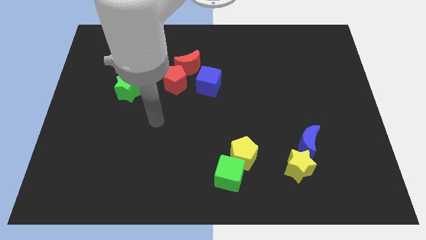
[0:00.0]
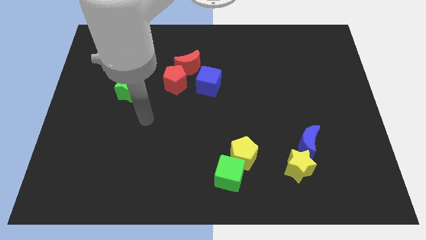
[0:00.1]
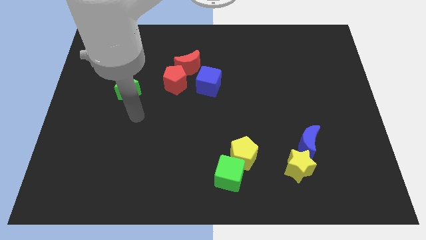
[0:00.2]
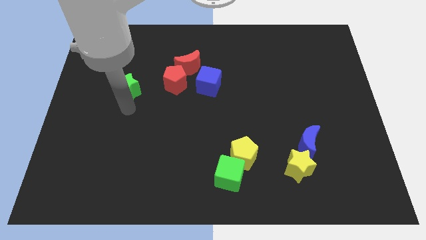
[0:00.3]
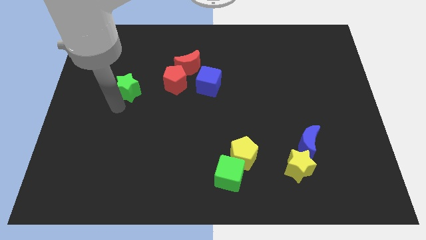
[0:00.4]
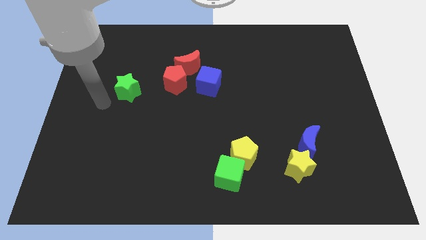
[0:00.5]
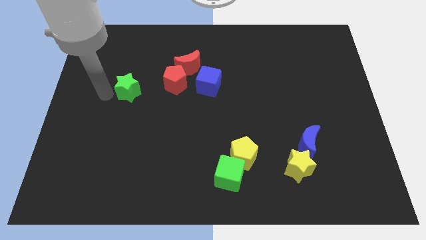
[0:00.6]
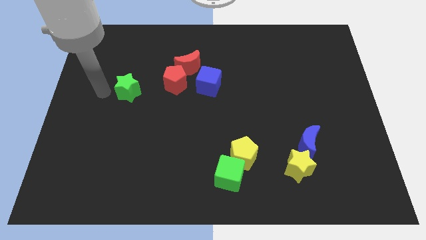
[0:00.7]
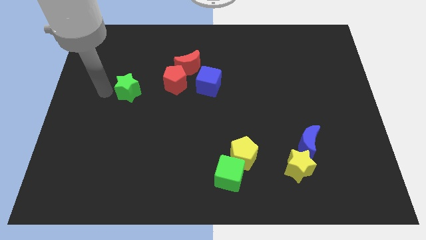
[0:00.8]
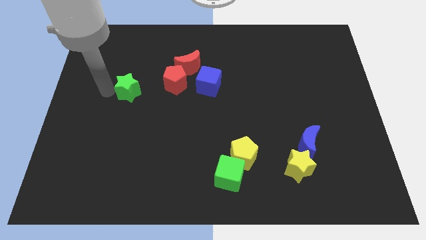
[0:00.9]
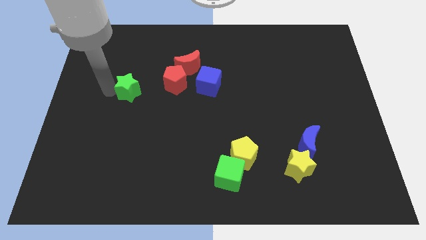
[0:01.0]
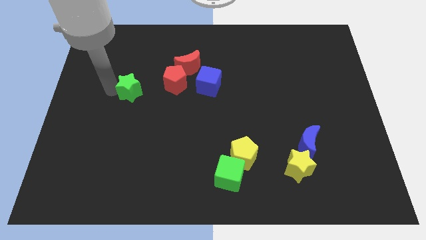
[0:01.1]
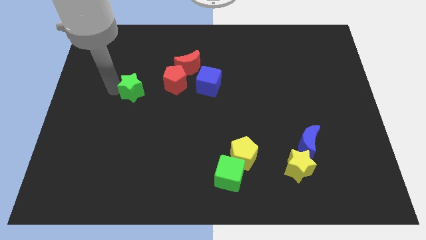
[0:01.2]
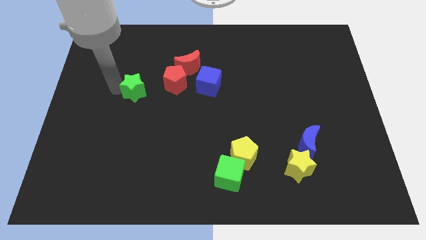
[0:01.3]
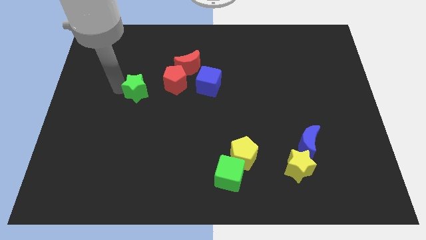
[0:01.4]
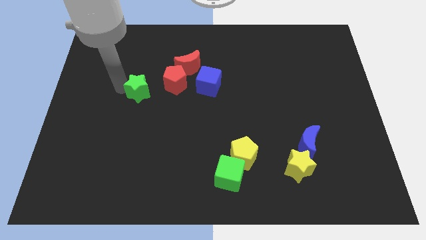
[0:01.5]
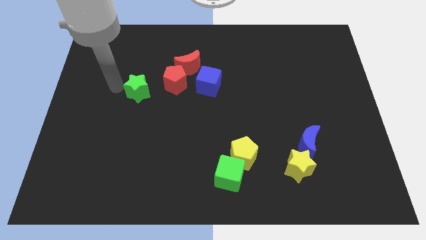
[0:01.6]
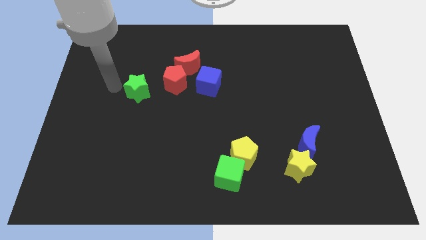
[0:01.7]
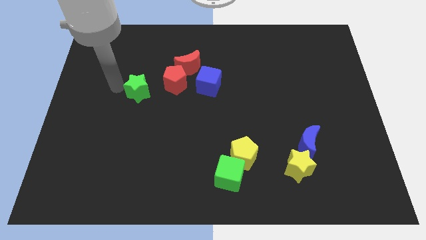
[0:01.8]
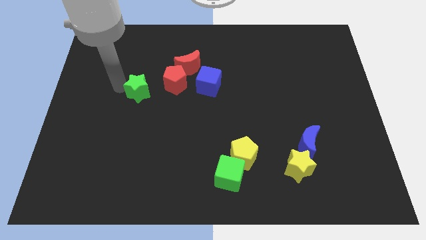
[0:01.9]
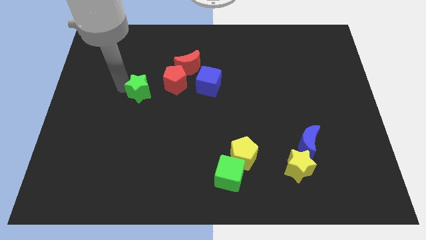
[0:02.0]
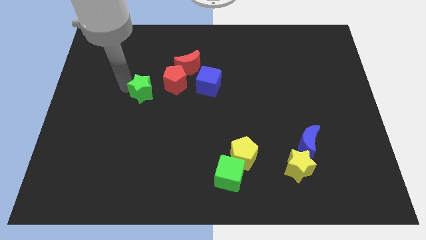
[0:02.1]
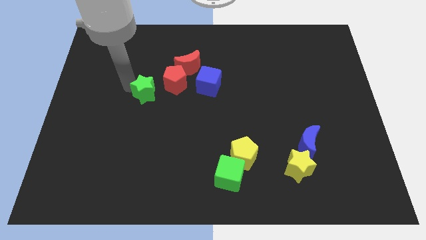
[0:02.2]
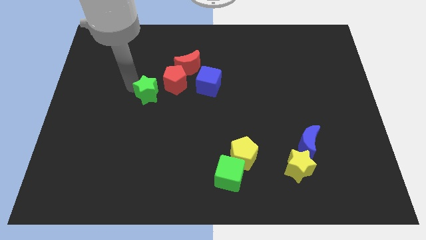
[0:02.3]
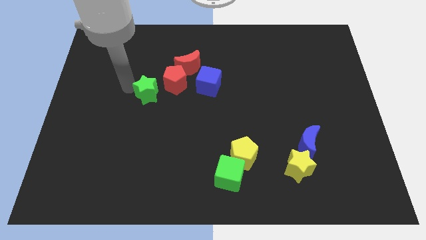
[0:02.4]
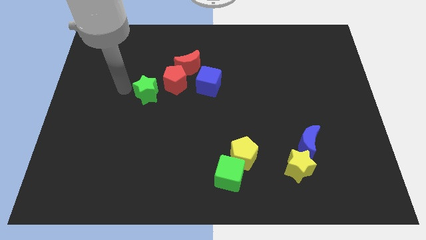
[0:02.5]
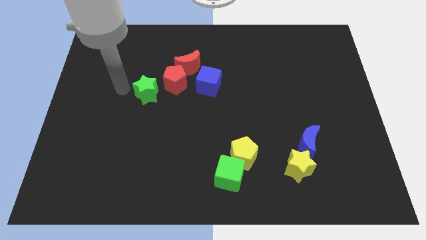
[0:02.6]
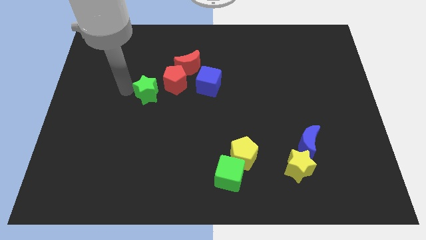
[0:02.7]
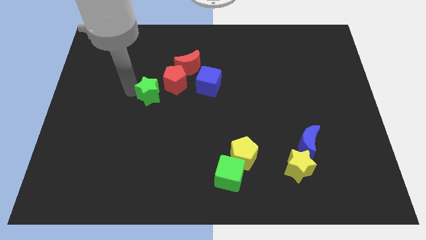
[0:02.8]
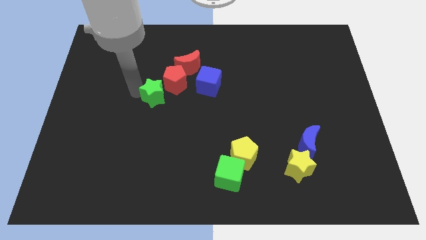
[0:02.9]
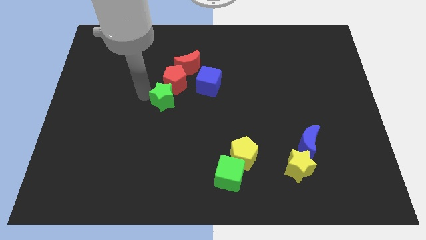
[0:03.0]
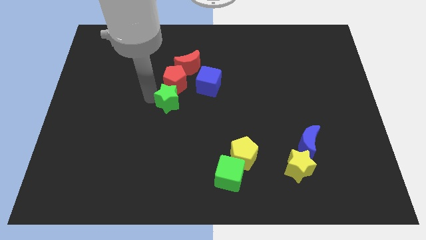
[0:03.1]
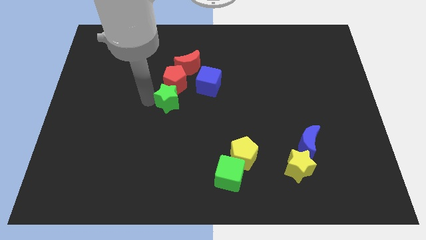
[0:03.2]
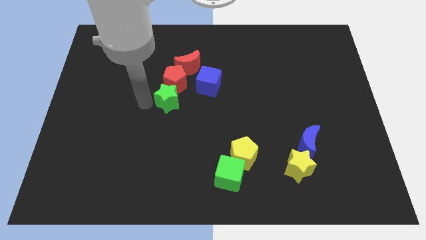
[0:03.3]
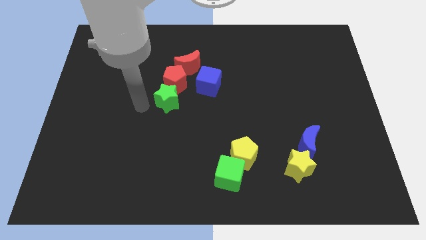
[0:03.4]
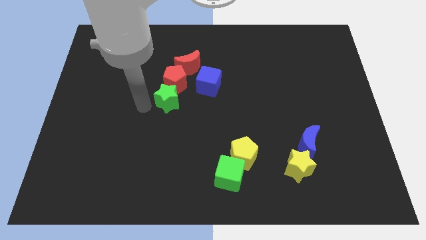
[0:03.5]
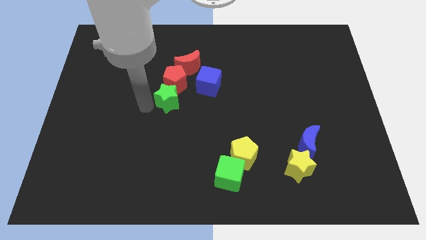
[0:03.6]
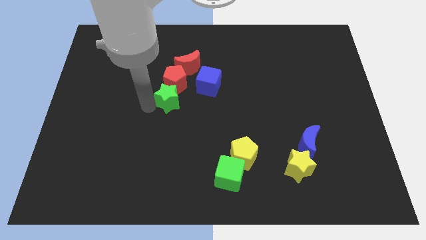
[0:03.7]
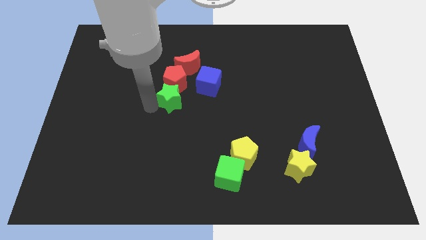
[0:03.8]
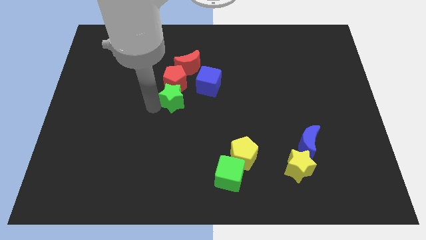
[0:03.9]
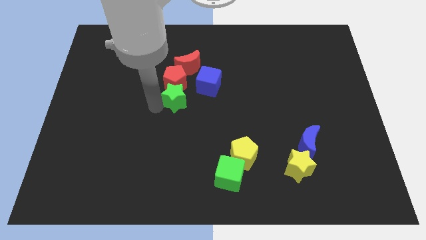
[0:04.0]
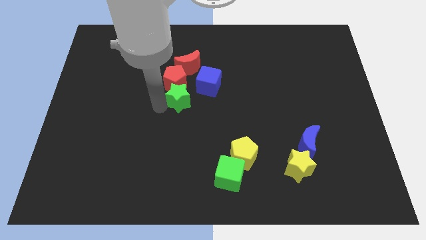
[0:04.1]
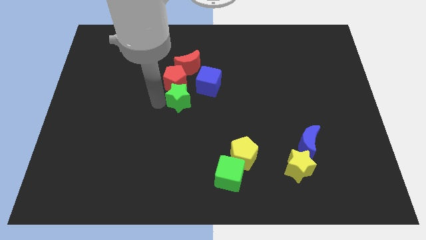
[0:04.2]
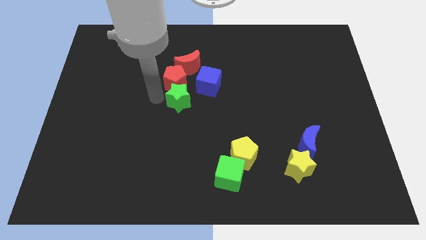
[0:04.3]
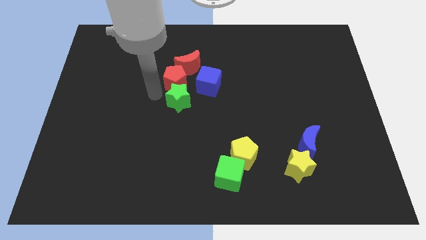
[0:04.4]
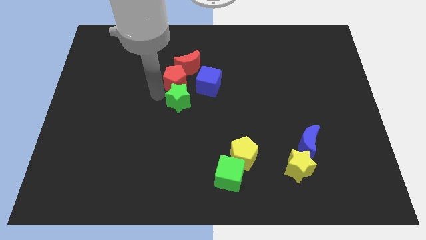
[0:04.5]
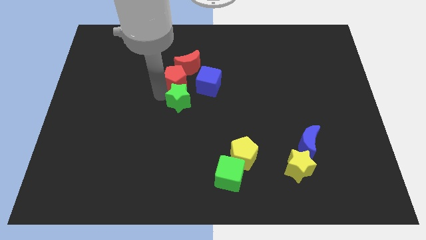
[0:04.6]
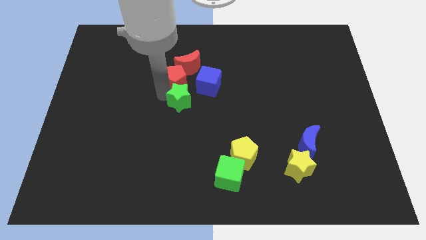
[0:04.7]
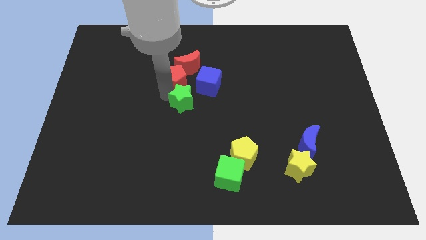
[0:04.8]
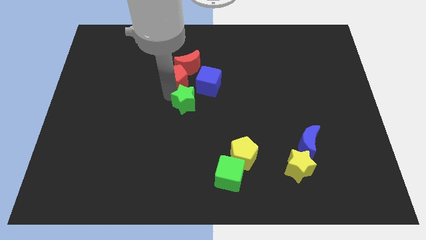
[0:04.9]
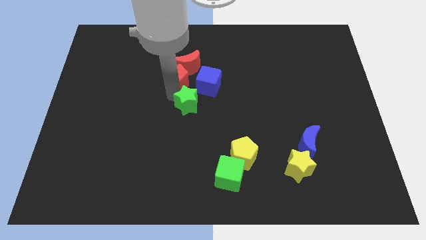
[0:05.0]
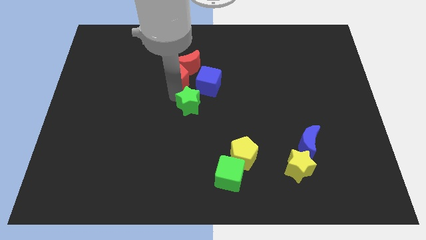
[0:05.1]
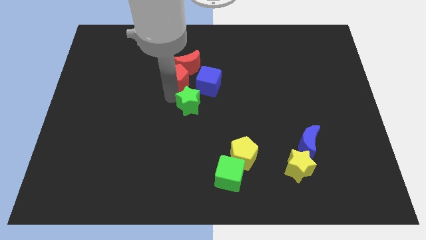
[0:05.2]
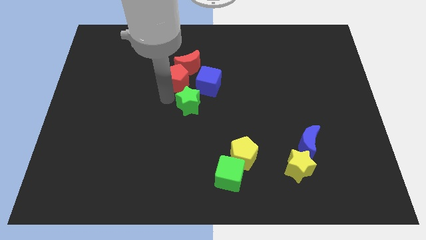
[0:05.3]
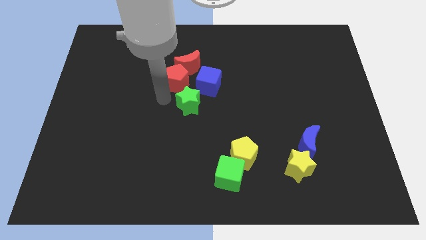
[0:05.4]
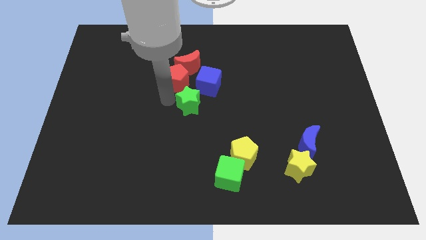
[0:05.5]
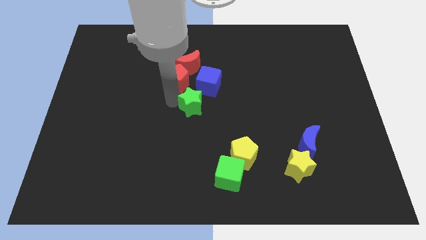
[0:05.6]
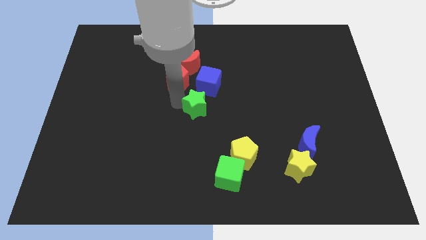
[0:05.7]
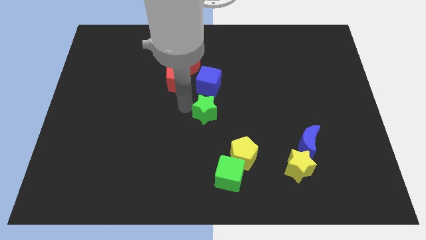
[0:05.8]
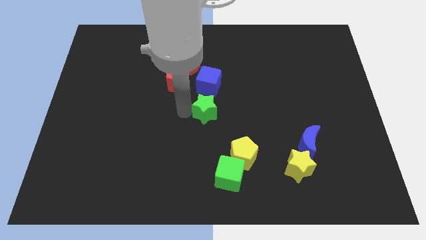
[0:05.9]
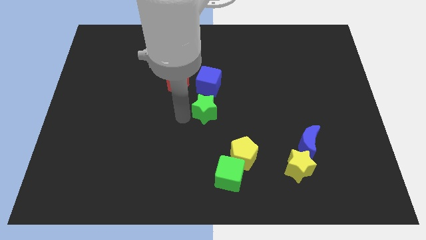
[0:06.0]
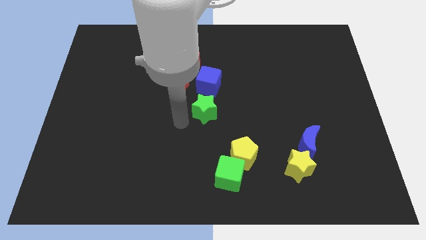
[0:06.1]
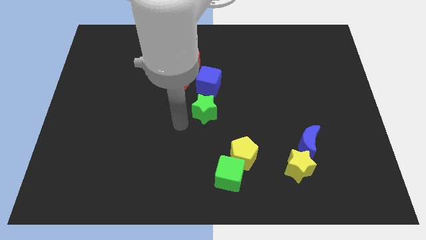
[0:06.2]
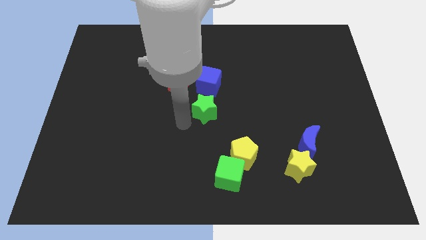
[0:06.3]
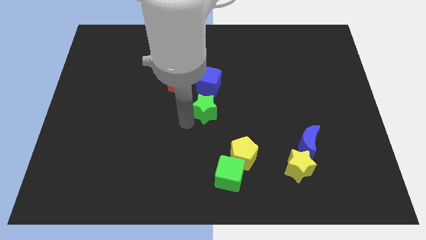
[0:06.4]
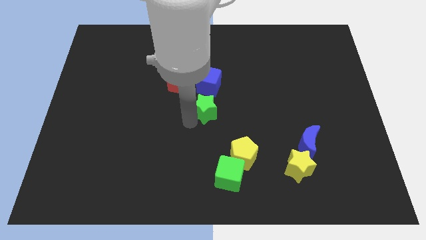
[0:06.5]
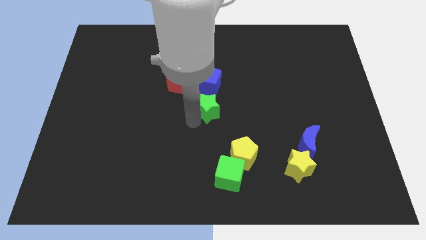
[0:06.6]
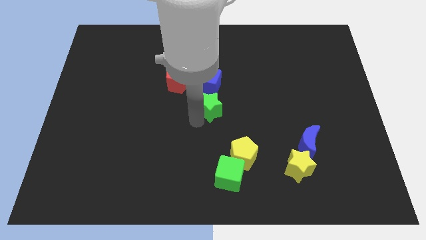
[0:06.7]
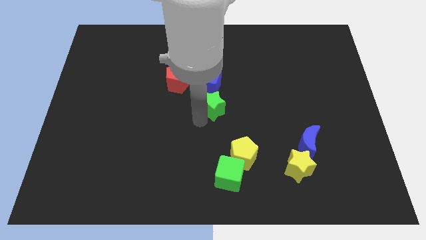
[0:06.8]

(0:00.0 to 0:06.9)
put the green star to the bottom right side of the blue cube

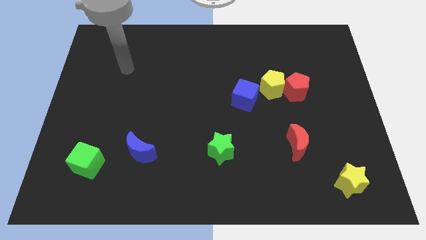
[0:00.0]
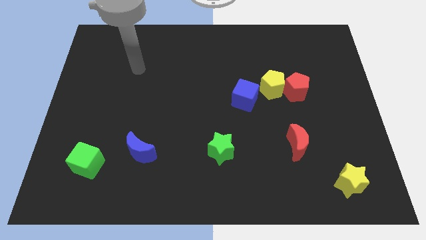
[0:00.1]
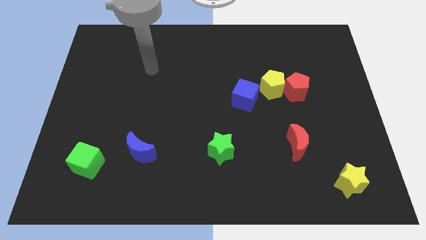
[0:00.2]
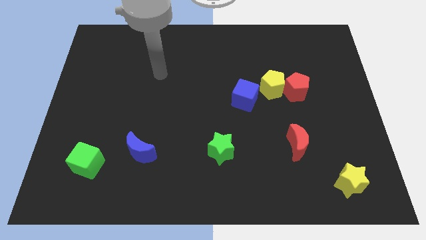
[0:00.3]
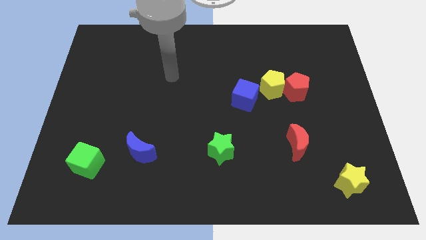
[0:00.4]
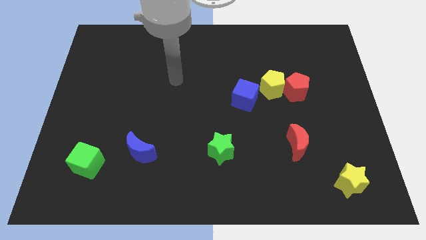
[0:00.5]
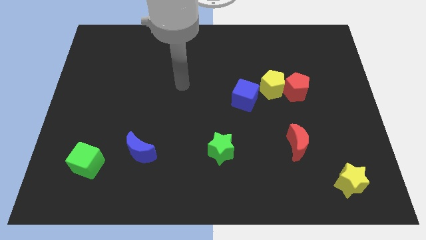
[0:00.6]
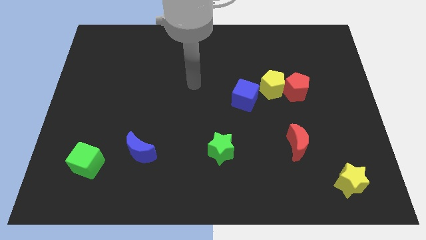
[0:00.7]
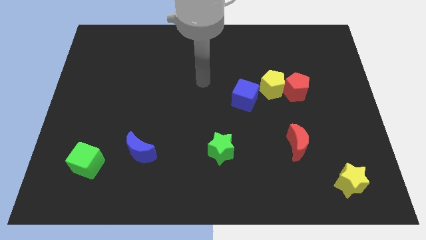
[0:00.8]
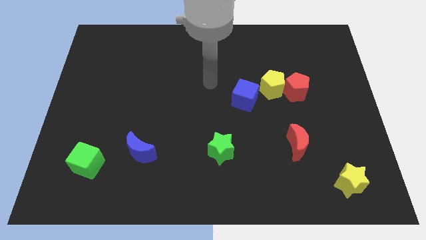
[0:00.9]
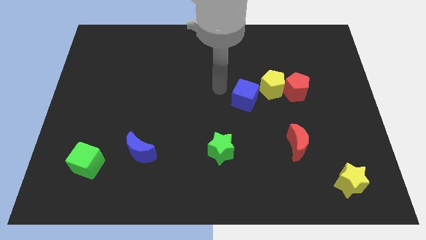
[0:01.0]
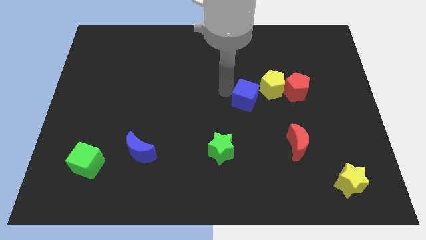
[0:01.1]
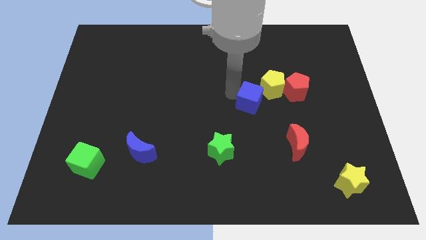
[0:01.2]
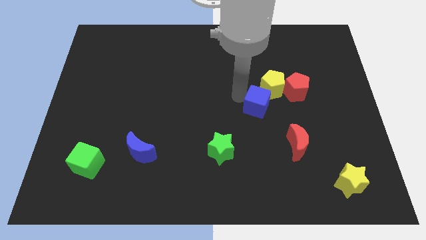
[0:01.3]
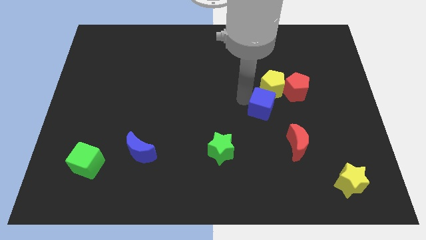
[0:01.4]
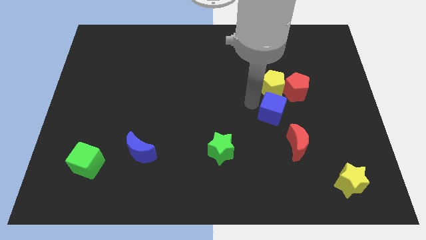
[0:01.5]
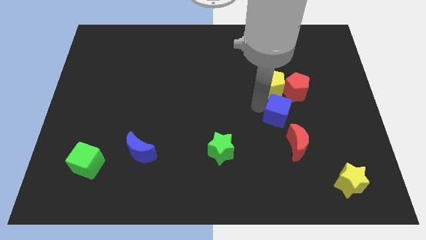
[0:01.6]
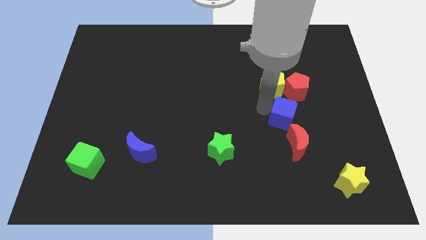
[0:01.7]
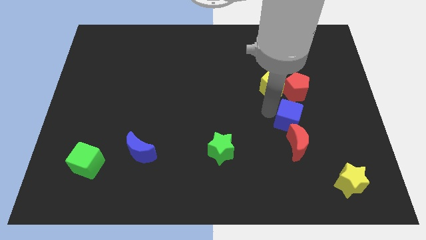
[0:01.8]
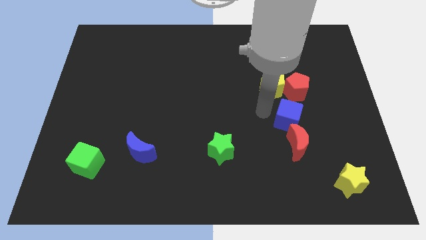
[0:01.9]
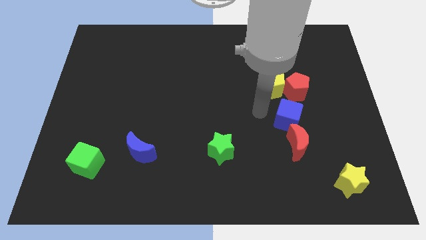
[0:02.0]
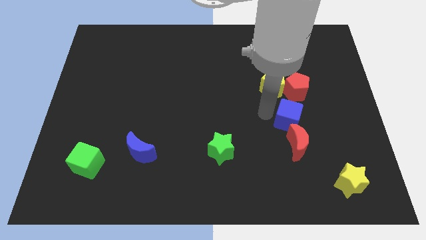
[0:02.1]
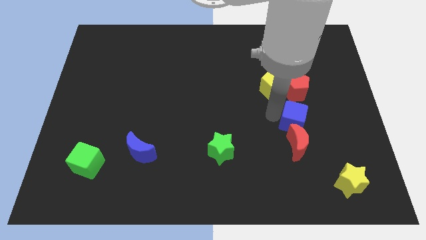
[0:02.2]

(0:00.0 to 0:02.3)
slide the blue cube to the top right of the red moon
